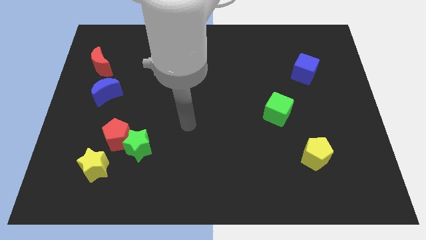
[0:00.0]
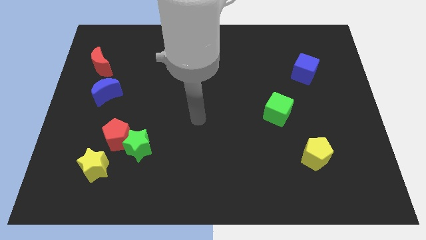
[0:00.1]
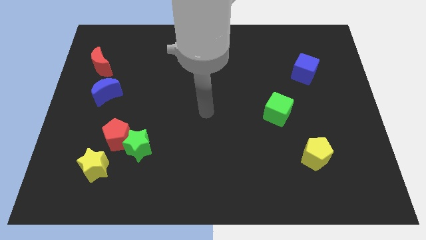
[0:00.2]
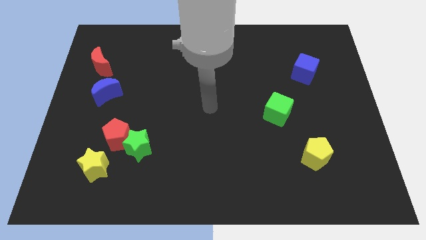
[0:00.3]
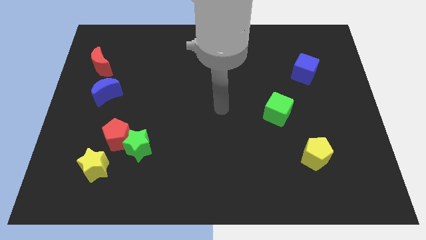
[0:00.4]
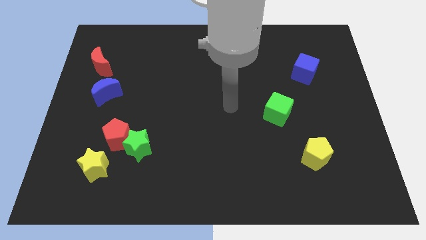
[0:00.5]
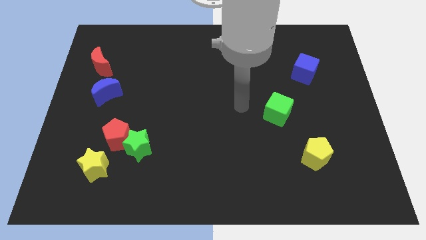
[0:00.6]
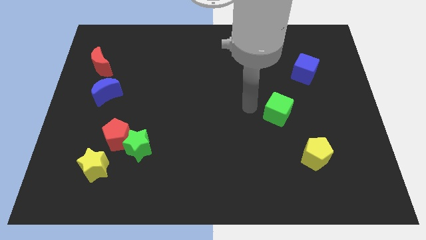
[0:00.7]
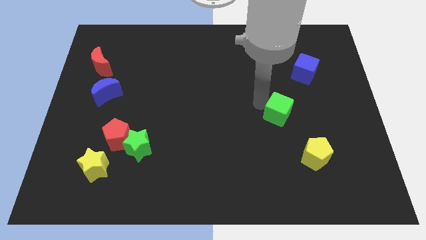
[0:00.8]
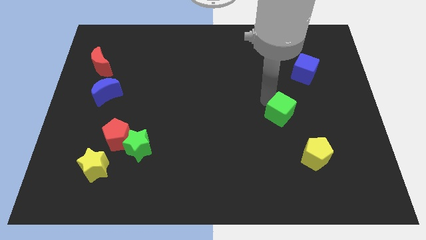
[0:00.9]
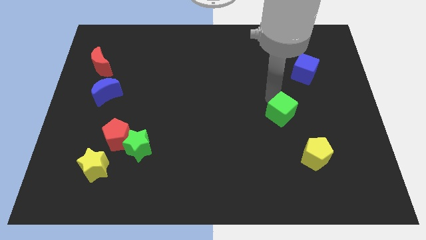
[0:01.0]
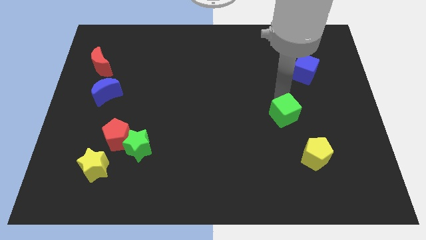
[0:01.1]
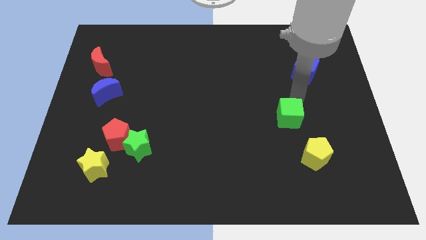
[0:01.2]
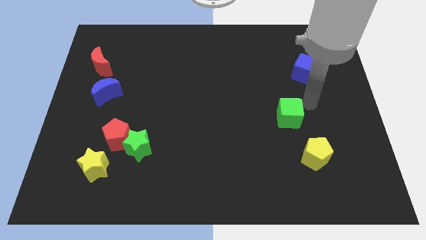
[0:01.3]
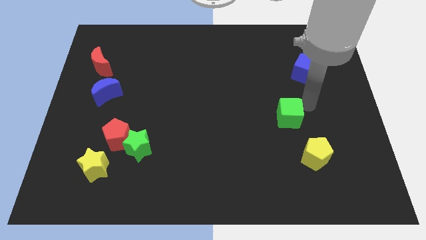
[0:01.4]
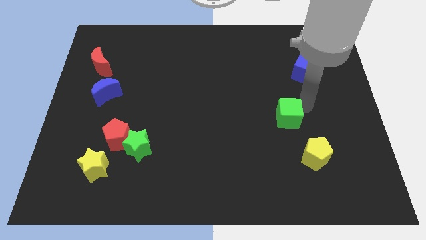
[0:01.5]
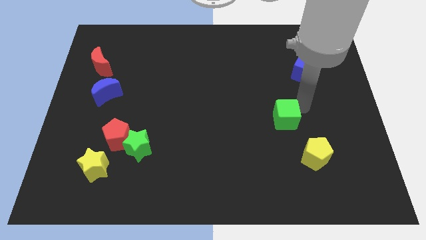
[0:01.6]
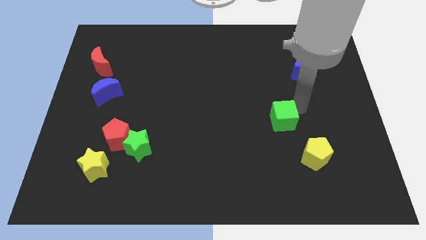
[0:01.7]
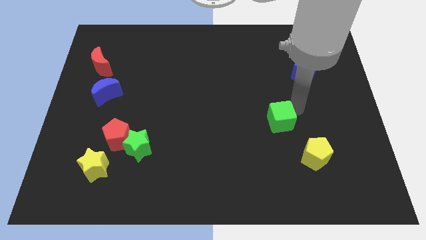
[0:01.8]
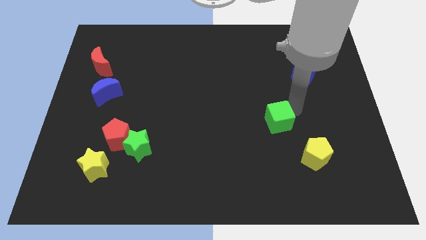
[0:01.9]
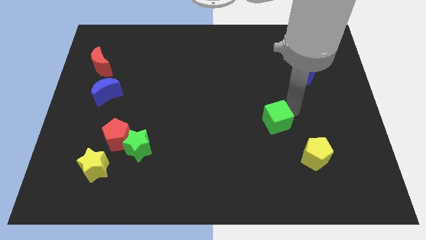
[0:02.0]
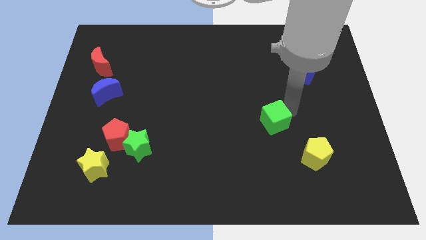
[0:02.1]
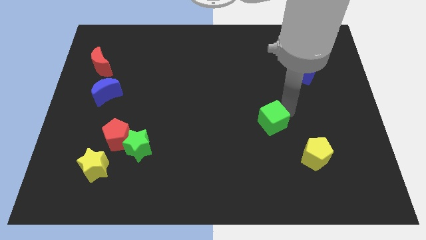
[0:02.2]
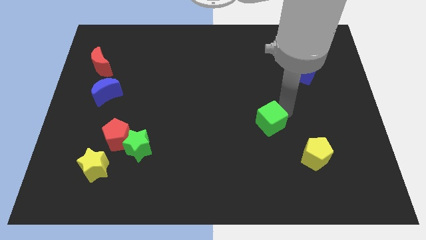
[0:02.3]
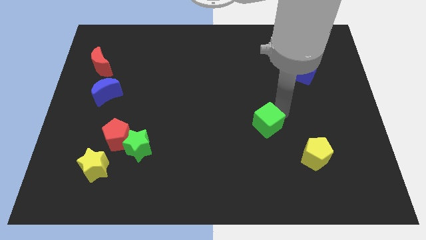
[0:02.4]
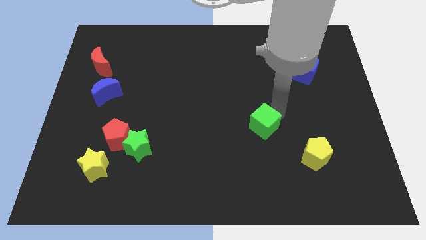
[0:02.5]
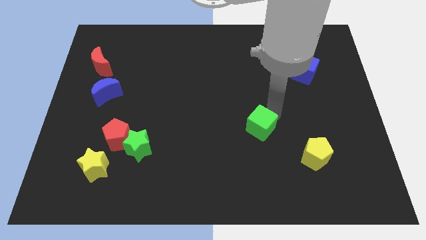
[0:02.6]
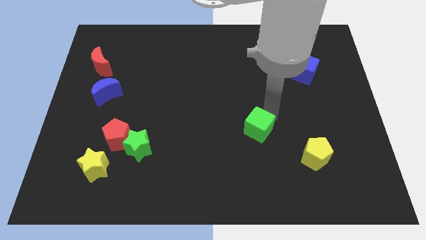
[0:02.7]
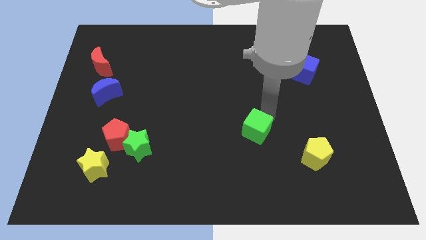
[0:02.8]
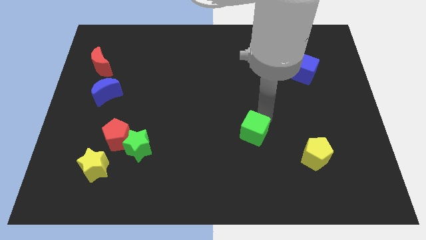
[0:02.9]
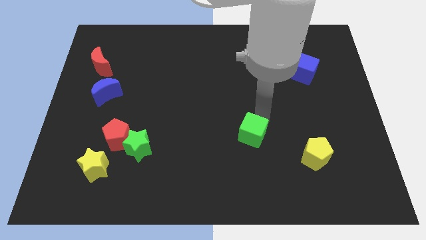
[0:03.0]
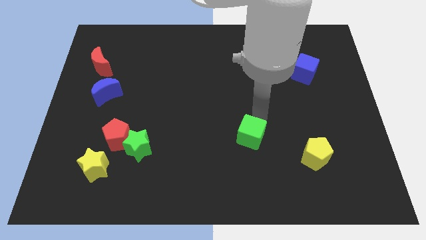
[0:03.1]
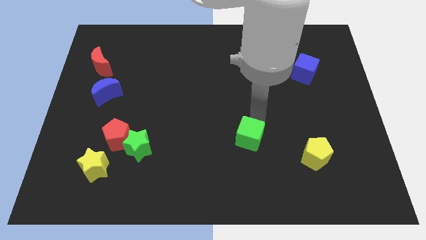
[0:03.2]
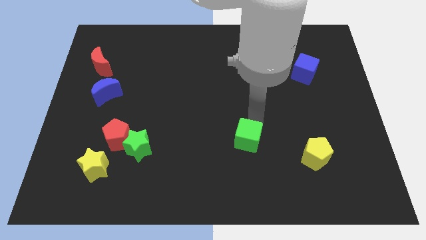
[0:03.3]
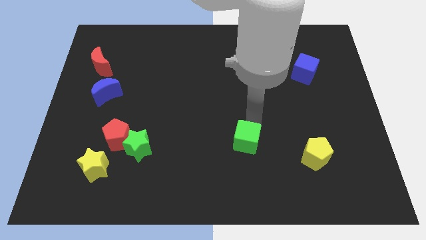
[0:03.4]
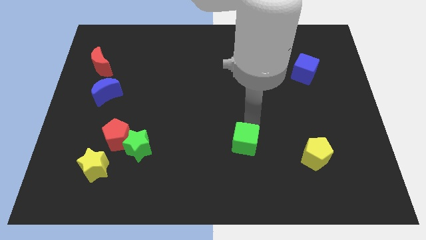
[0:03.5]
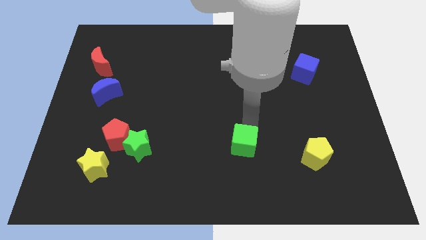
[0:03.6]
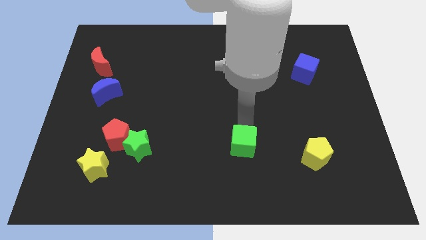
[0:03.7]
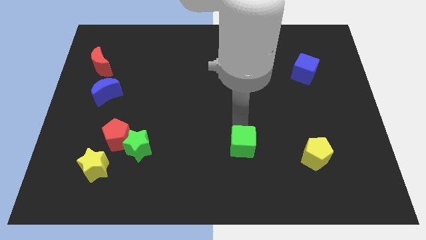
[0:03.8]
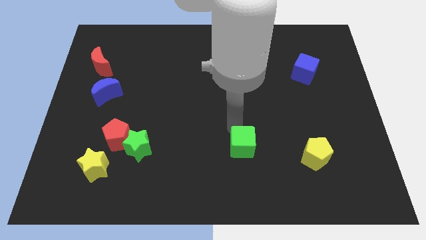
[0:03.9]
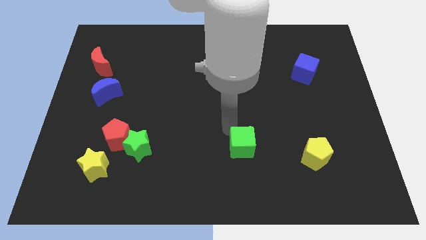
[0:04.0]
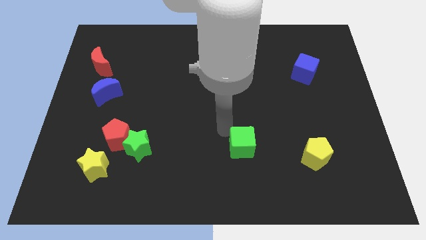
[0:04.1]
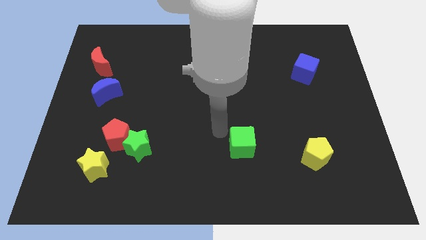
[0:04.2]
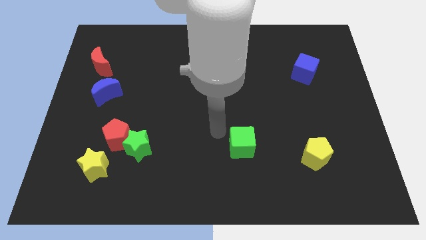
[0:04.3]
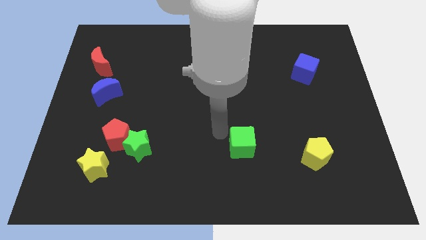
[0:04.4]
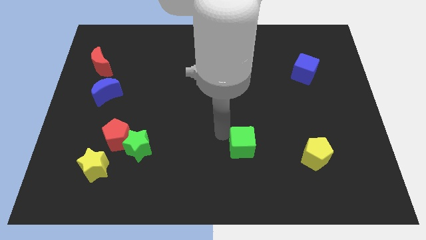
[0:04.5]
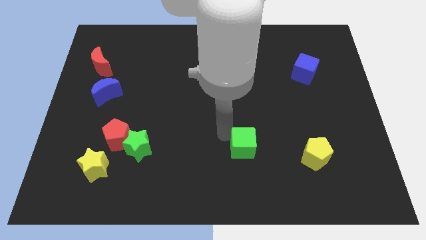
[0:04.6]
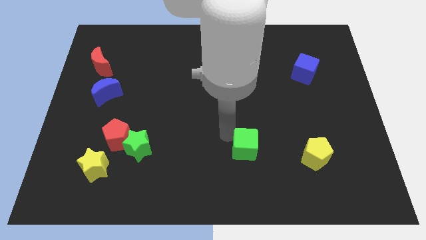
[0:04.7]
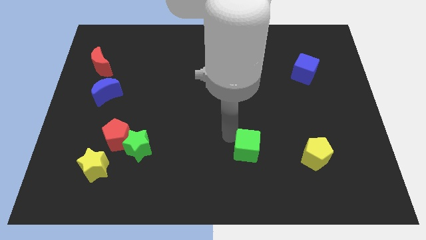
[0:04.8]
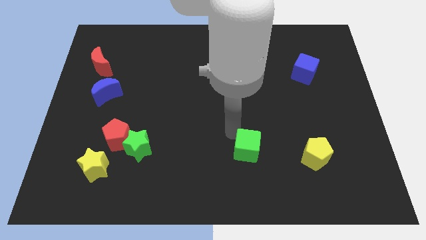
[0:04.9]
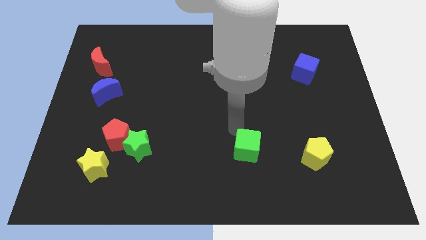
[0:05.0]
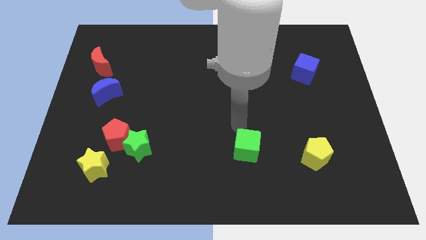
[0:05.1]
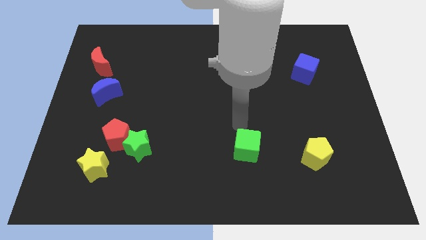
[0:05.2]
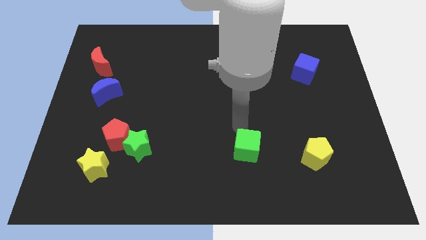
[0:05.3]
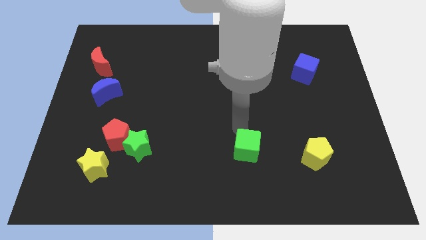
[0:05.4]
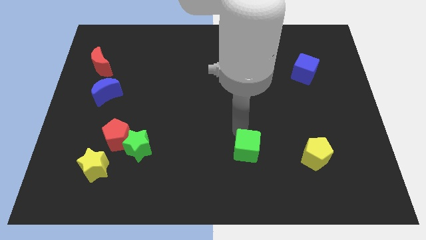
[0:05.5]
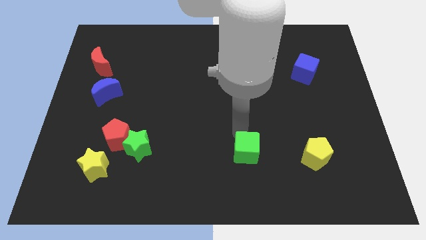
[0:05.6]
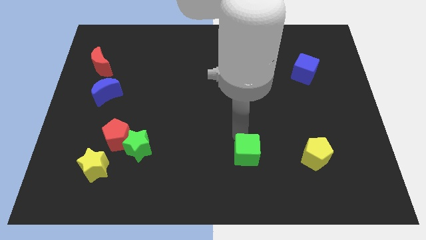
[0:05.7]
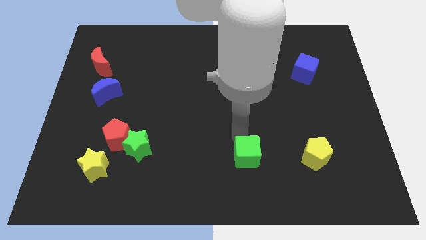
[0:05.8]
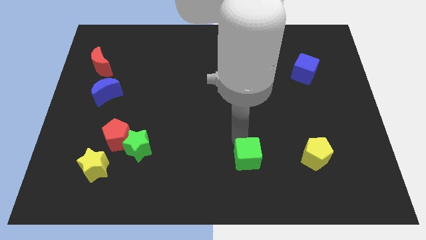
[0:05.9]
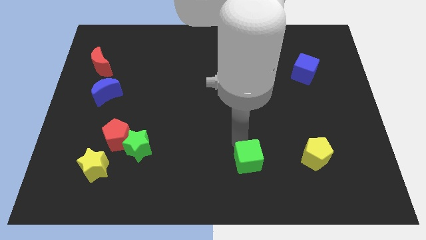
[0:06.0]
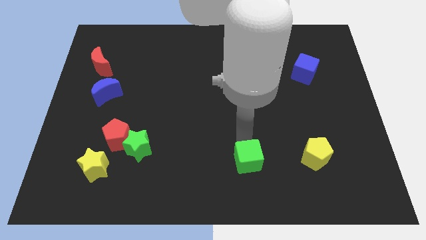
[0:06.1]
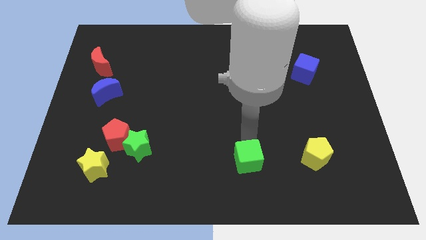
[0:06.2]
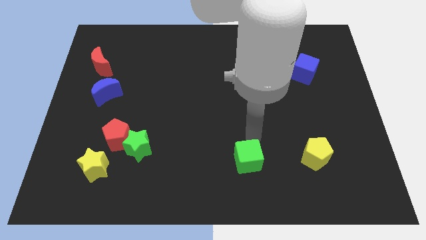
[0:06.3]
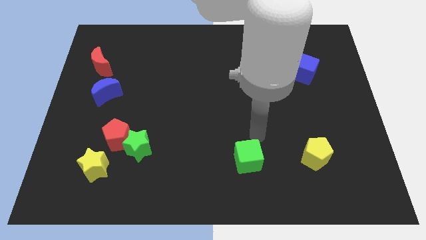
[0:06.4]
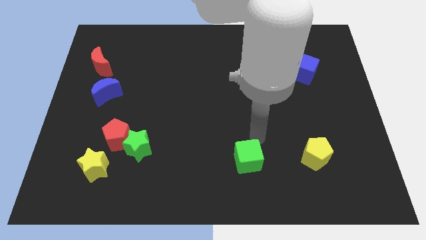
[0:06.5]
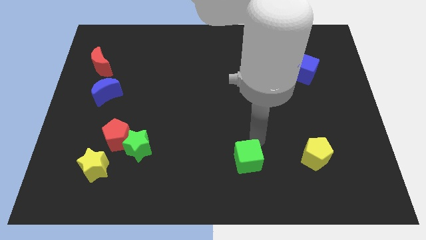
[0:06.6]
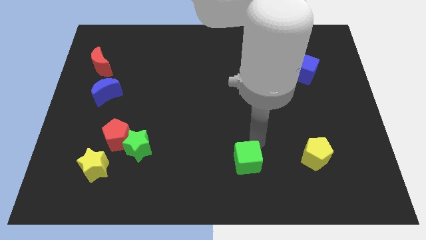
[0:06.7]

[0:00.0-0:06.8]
slide the green cube to the bottom
